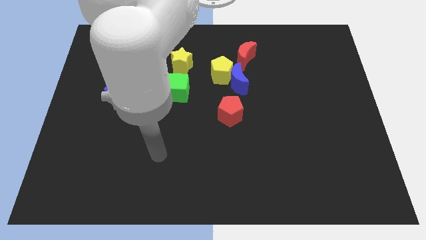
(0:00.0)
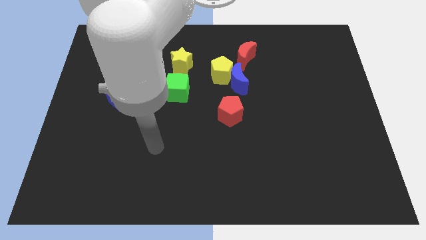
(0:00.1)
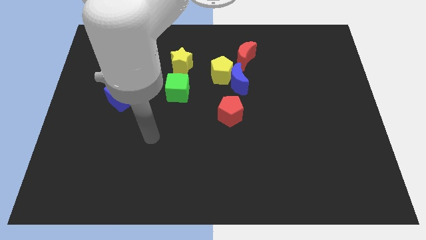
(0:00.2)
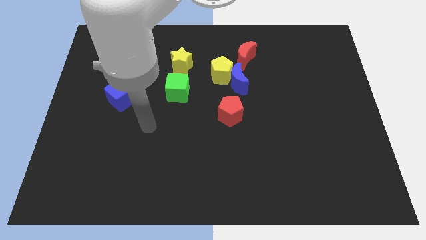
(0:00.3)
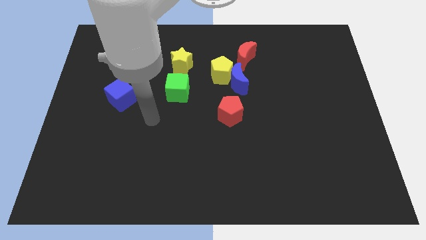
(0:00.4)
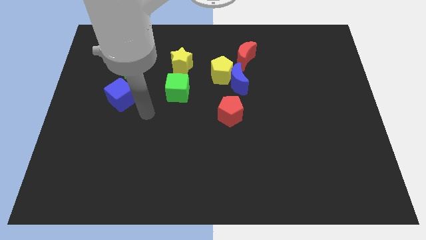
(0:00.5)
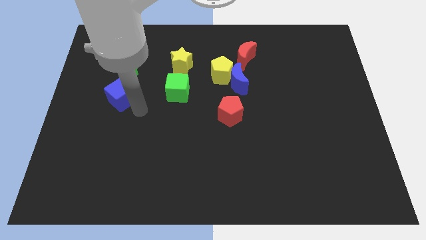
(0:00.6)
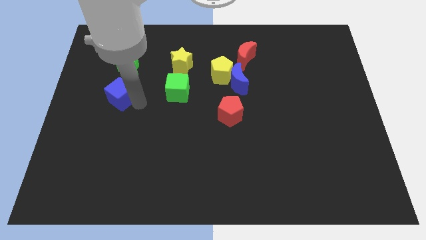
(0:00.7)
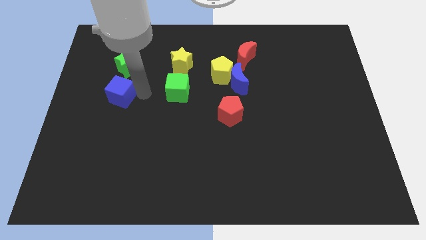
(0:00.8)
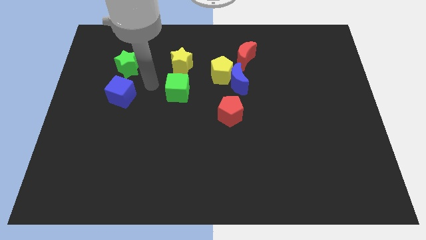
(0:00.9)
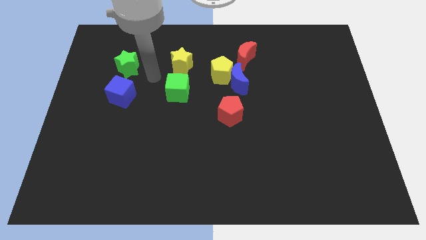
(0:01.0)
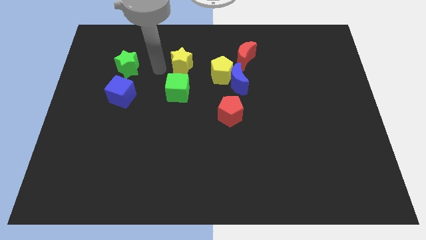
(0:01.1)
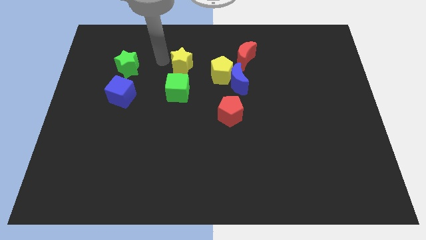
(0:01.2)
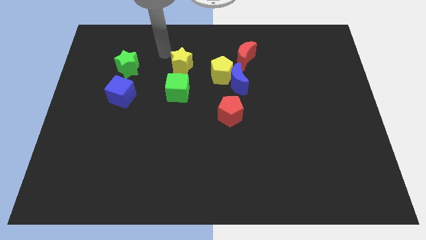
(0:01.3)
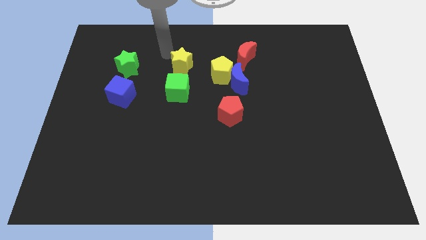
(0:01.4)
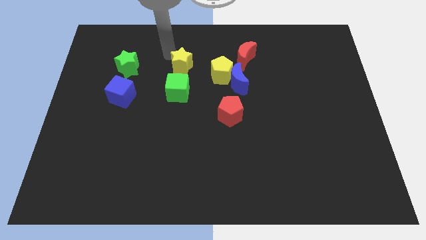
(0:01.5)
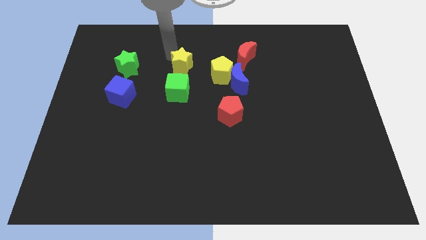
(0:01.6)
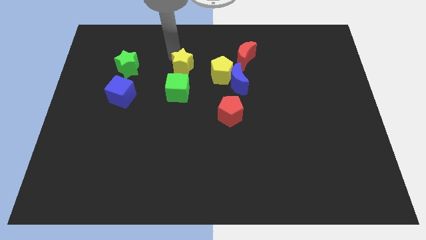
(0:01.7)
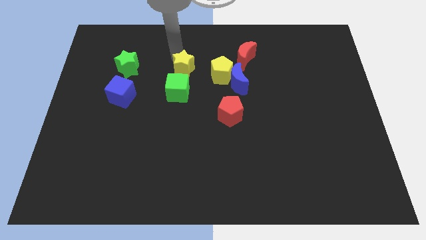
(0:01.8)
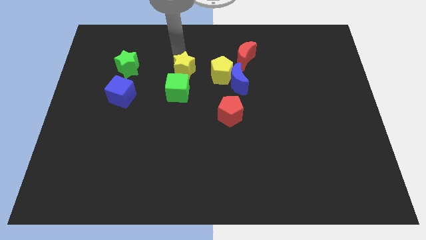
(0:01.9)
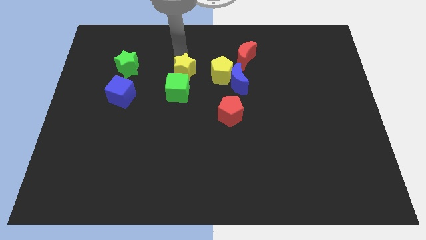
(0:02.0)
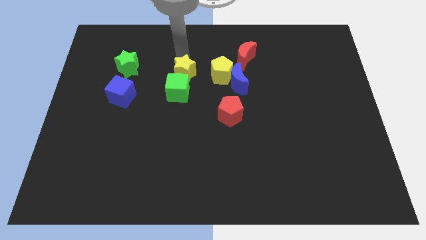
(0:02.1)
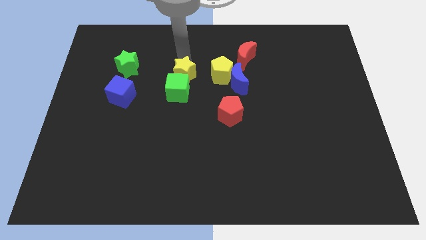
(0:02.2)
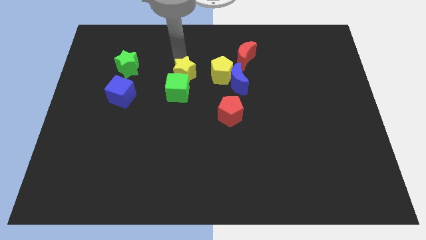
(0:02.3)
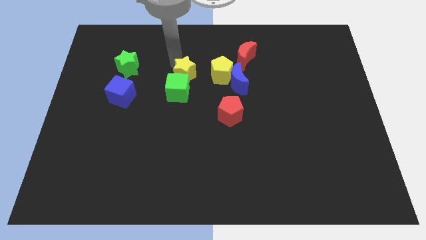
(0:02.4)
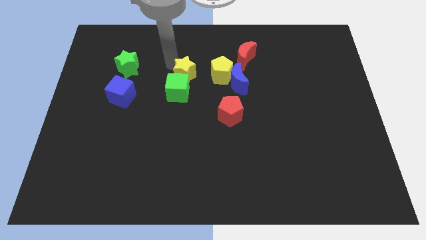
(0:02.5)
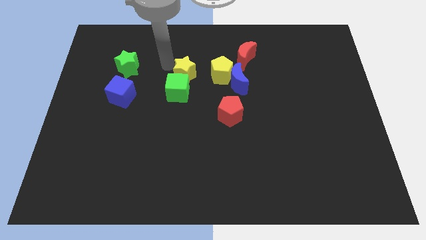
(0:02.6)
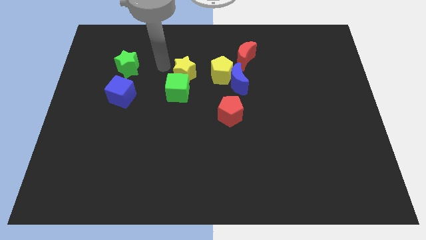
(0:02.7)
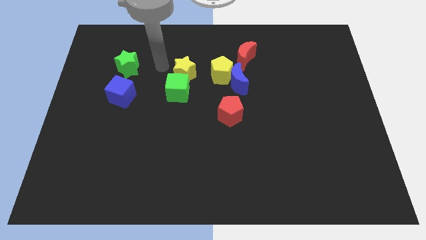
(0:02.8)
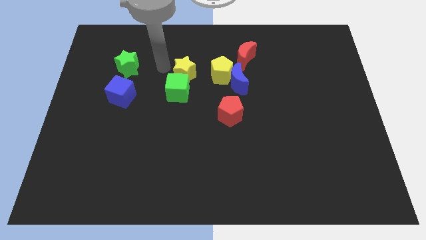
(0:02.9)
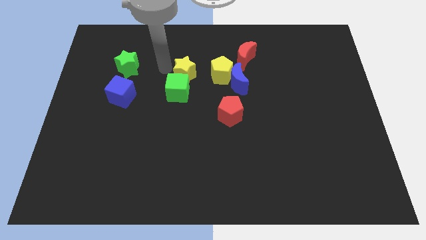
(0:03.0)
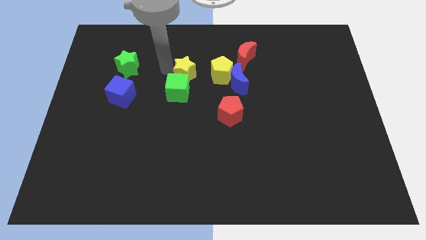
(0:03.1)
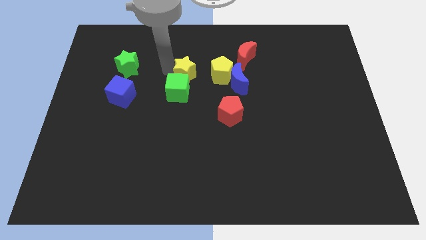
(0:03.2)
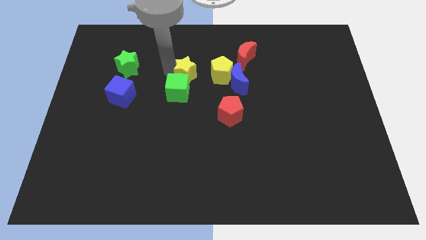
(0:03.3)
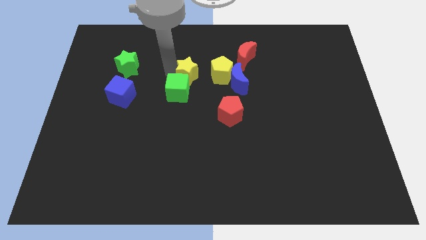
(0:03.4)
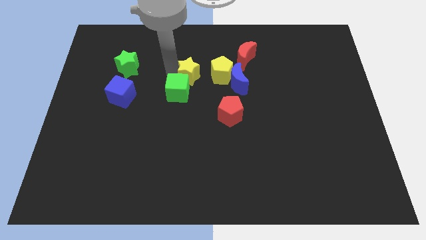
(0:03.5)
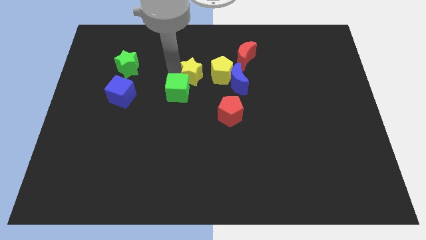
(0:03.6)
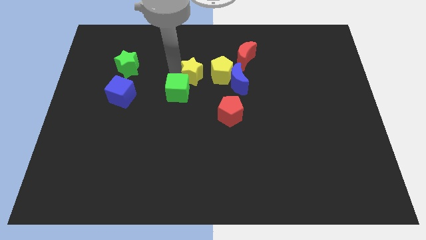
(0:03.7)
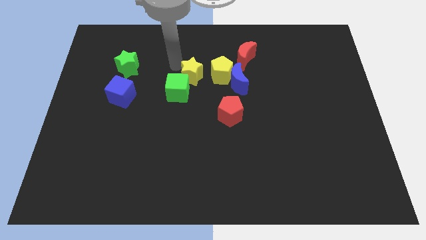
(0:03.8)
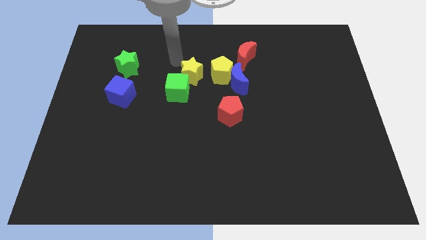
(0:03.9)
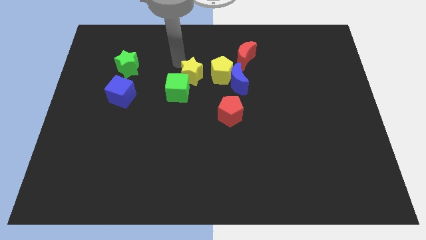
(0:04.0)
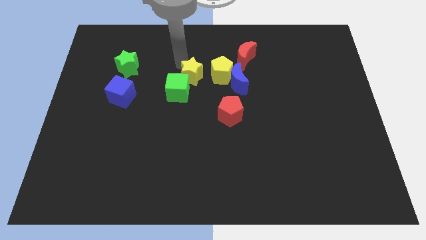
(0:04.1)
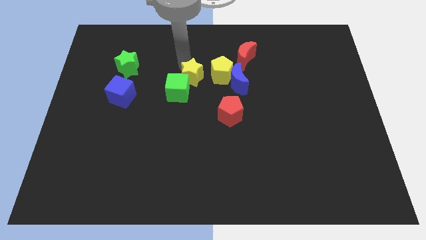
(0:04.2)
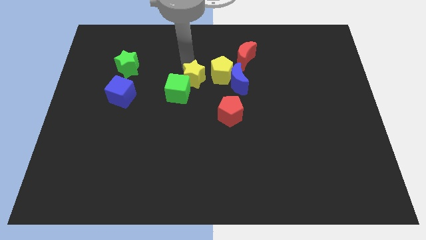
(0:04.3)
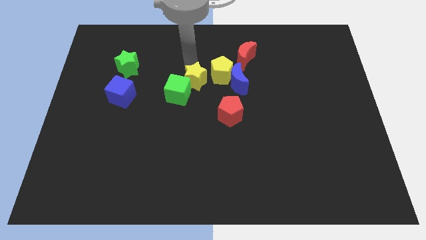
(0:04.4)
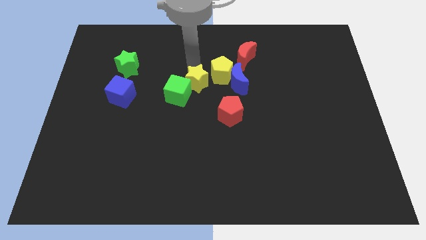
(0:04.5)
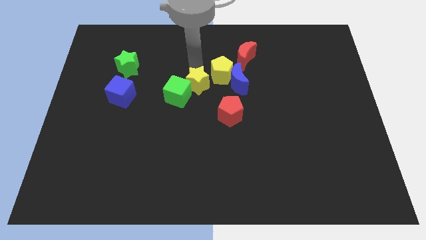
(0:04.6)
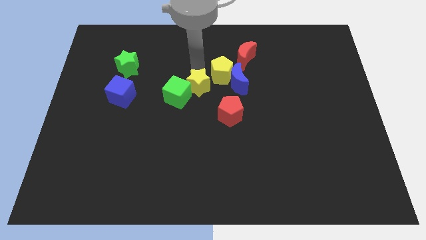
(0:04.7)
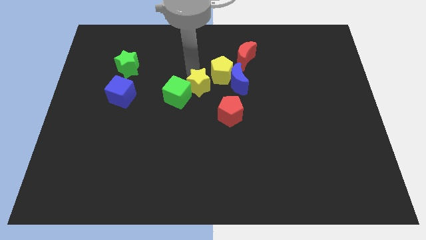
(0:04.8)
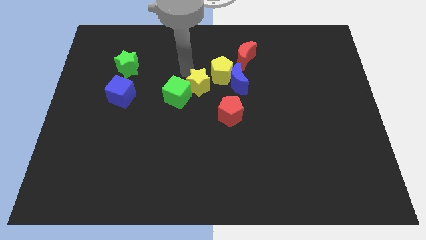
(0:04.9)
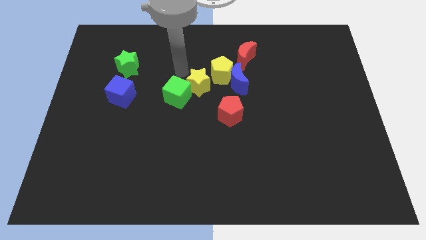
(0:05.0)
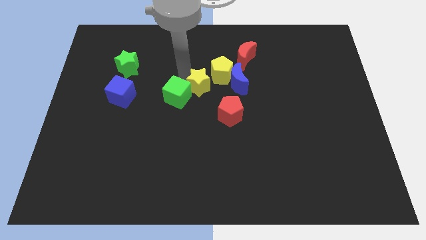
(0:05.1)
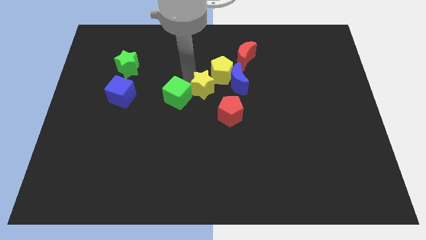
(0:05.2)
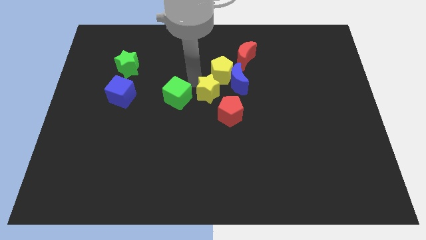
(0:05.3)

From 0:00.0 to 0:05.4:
put the yellow star diagonally down and to the left of the blue moon

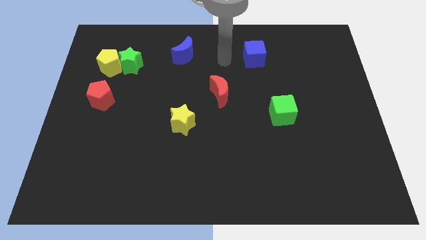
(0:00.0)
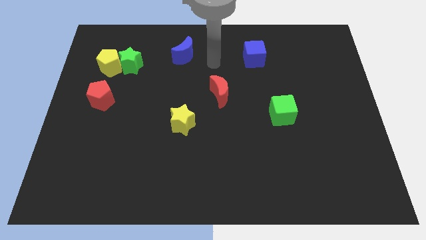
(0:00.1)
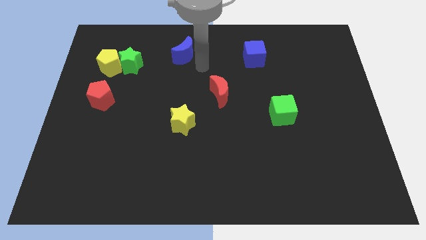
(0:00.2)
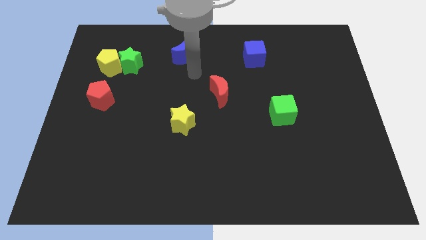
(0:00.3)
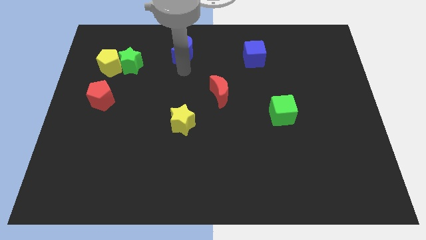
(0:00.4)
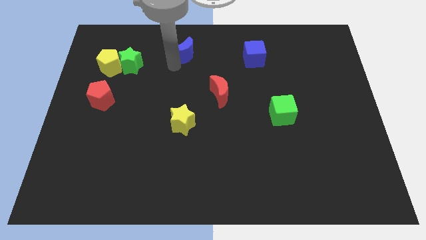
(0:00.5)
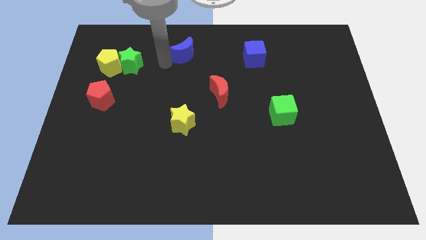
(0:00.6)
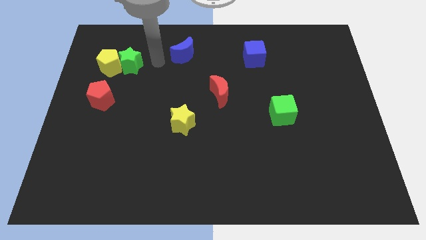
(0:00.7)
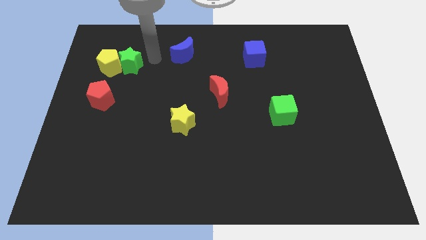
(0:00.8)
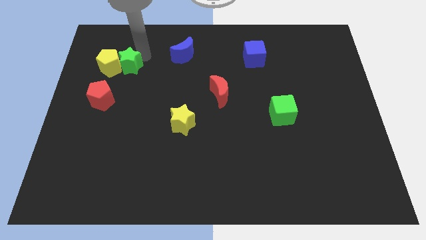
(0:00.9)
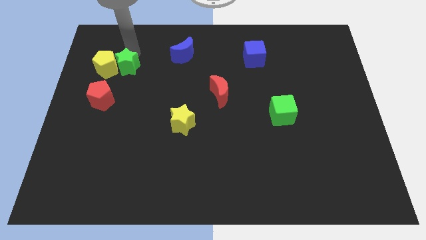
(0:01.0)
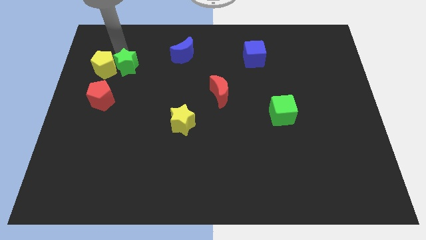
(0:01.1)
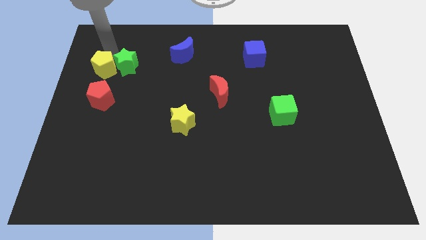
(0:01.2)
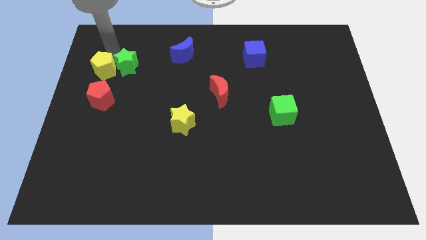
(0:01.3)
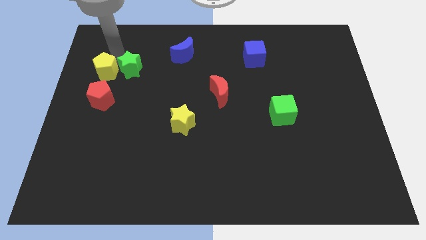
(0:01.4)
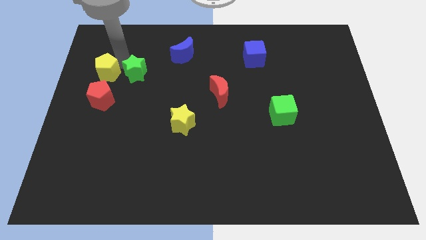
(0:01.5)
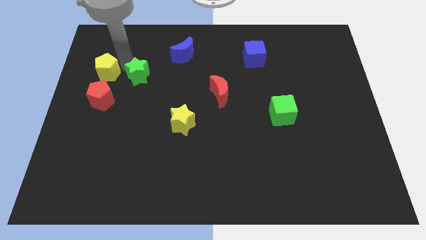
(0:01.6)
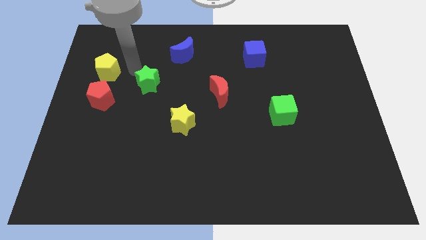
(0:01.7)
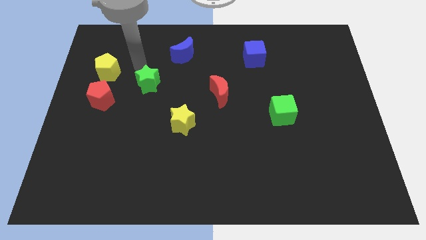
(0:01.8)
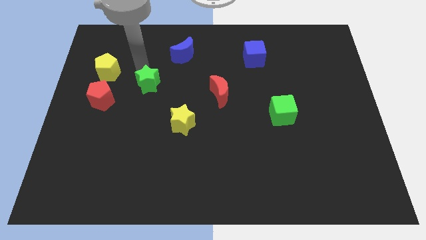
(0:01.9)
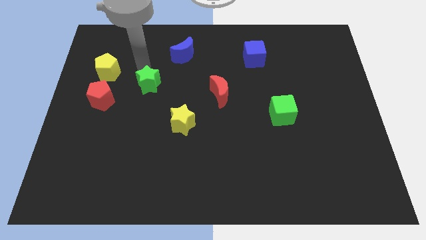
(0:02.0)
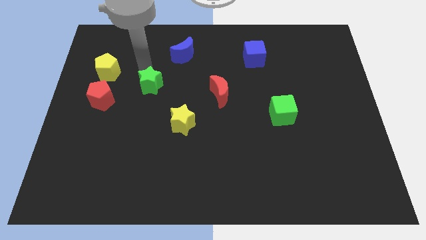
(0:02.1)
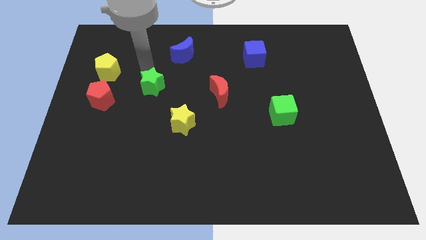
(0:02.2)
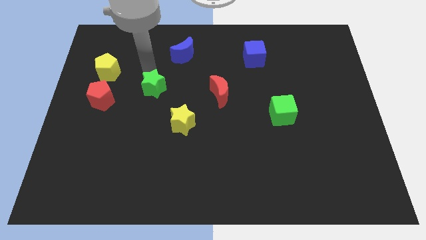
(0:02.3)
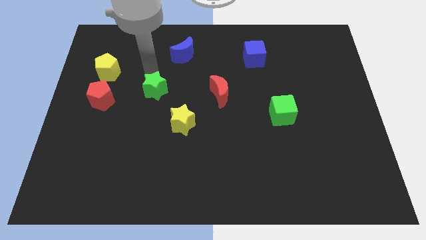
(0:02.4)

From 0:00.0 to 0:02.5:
push the green star to the top left of the yellow star
